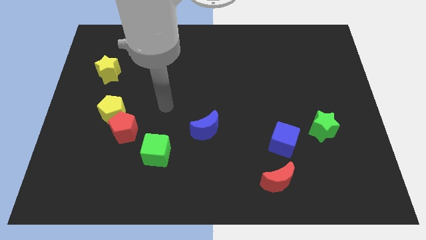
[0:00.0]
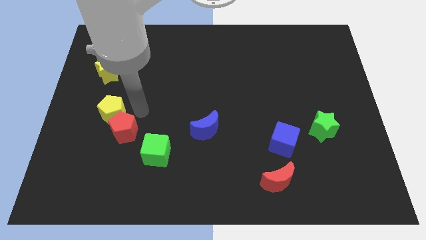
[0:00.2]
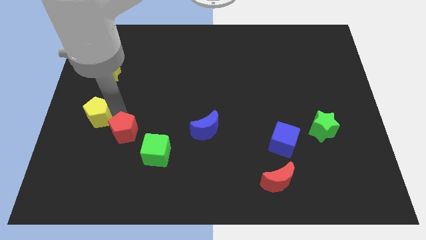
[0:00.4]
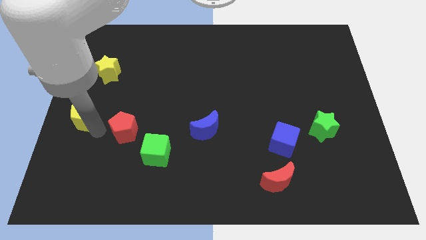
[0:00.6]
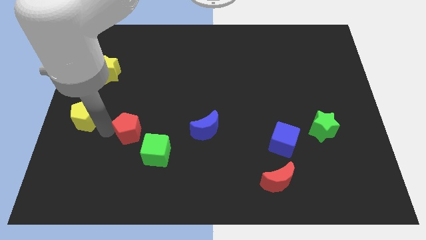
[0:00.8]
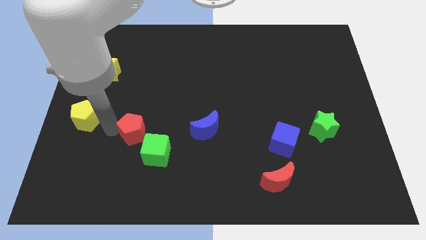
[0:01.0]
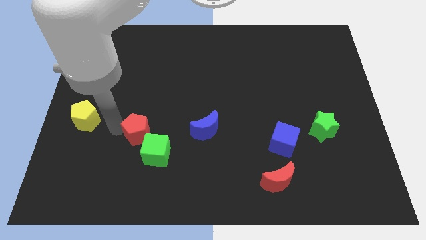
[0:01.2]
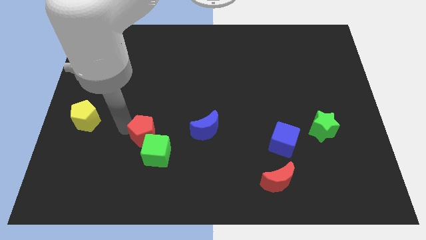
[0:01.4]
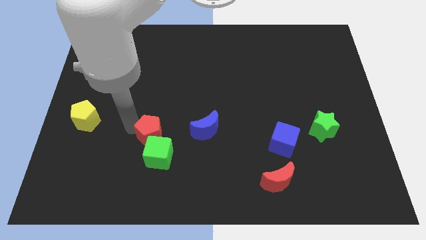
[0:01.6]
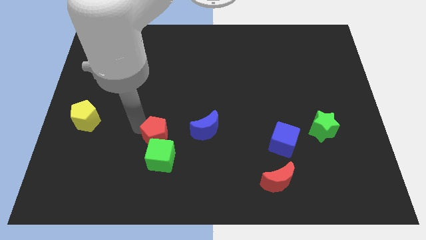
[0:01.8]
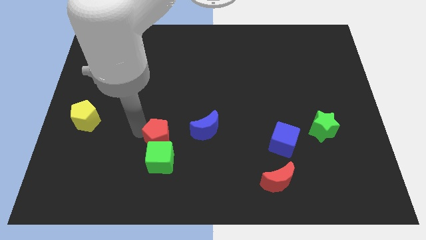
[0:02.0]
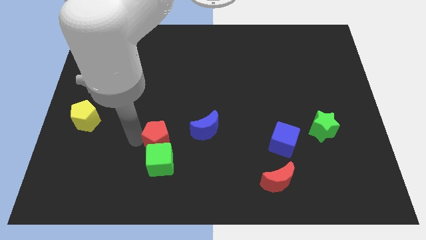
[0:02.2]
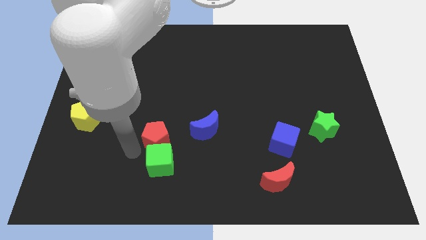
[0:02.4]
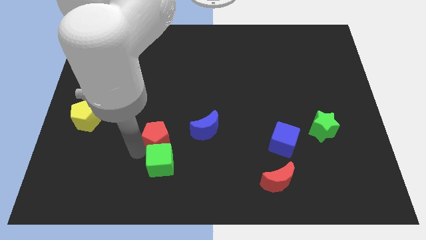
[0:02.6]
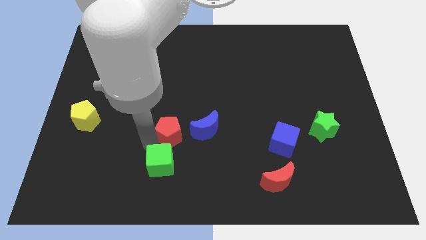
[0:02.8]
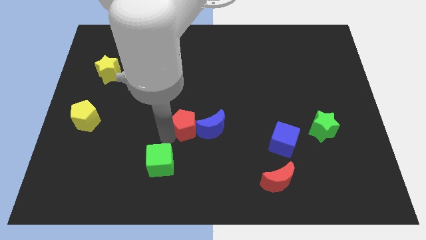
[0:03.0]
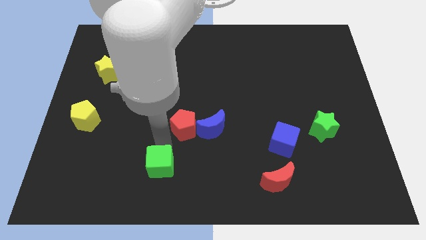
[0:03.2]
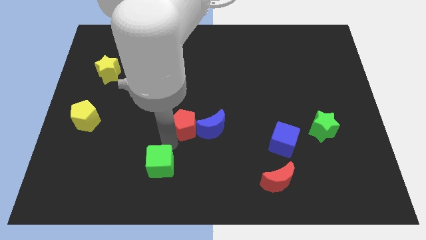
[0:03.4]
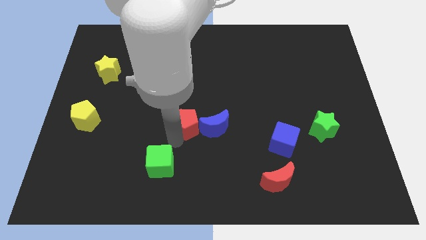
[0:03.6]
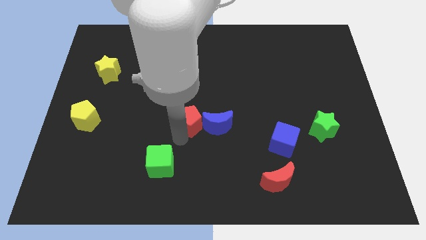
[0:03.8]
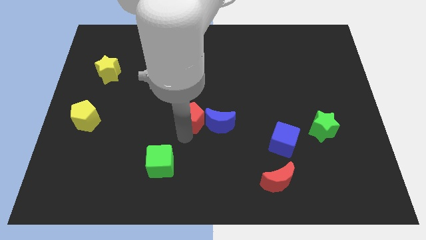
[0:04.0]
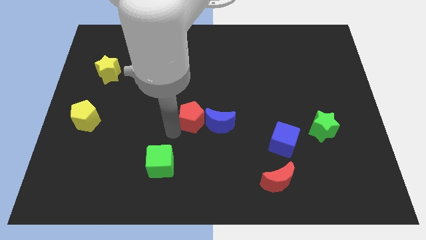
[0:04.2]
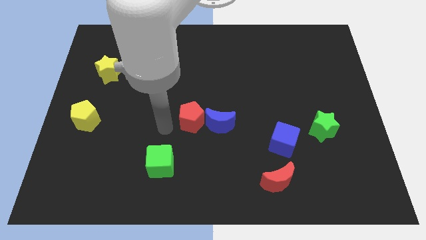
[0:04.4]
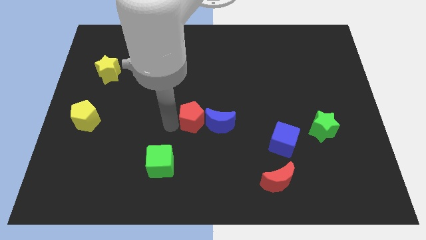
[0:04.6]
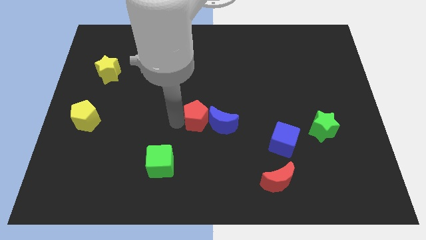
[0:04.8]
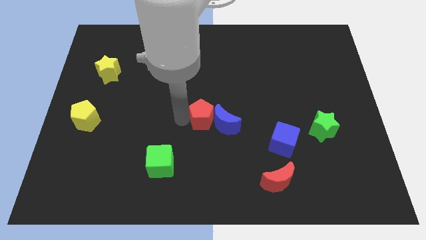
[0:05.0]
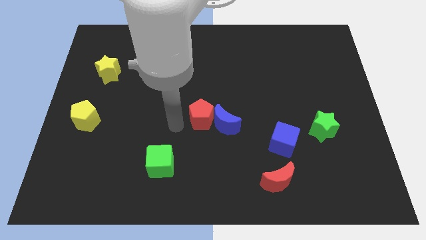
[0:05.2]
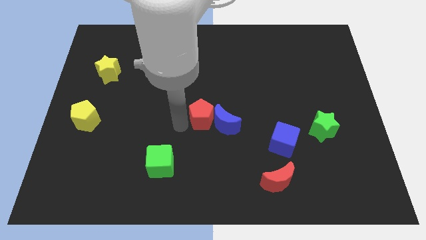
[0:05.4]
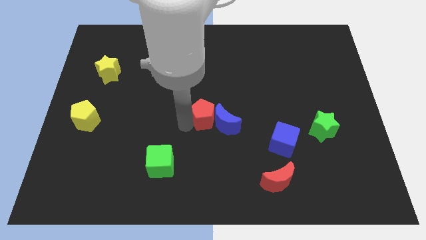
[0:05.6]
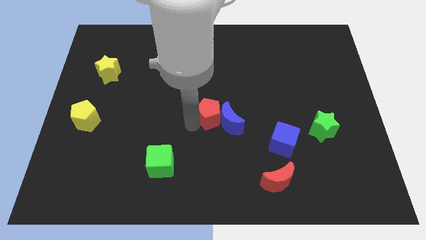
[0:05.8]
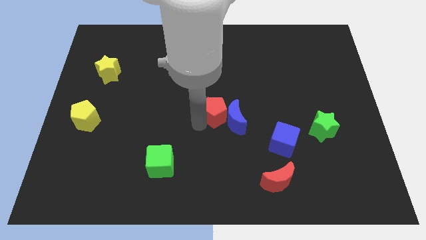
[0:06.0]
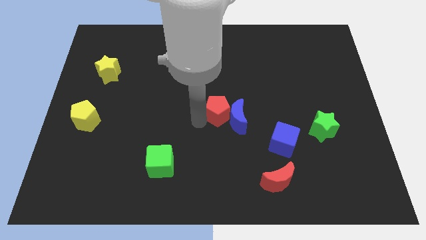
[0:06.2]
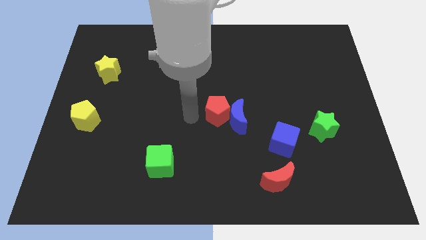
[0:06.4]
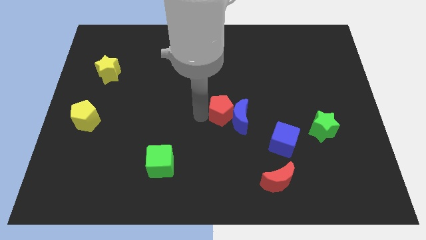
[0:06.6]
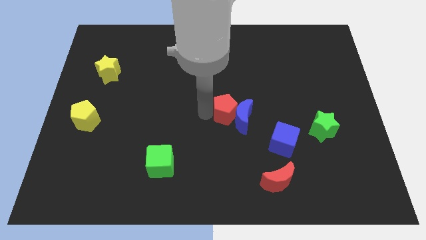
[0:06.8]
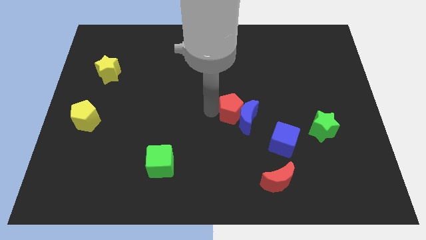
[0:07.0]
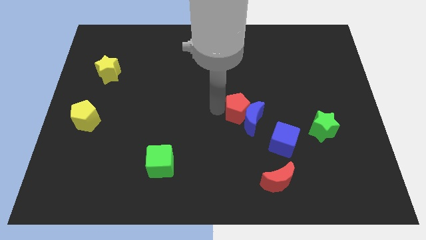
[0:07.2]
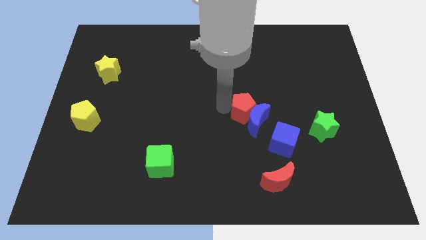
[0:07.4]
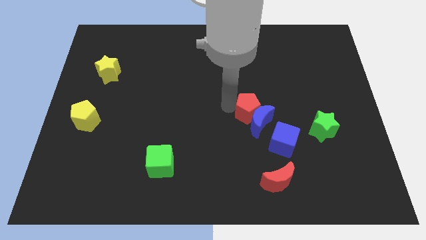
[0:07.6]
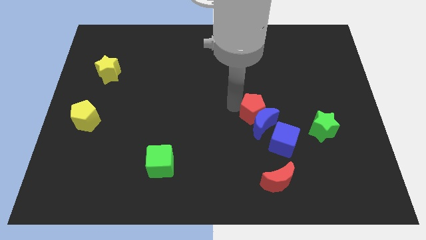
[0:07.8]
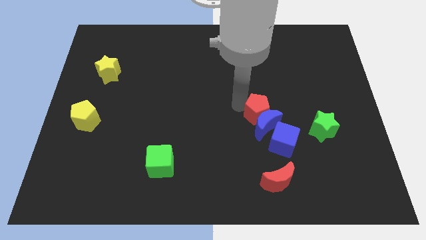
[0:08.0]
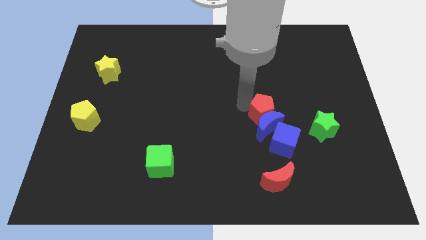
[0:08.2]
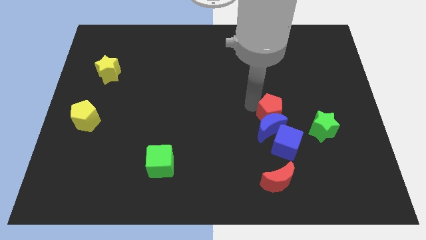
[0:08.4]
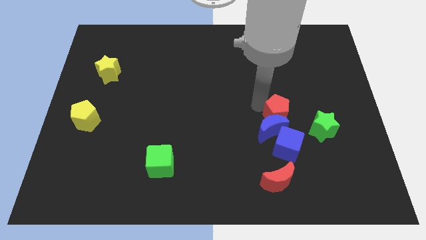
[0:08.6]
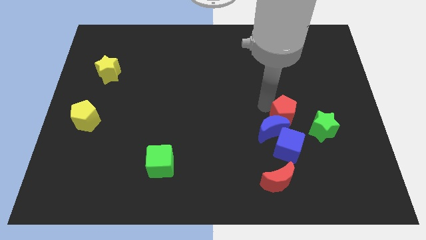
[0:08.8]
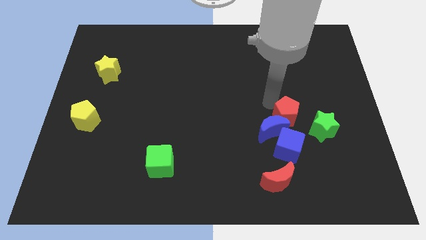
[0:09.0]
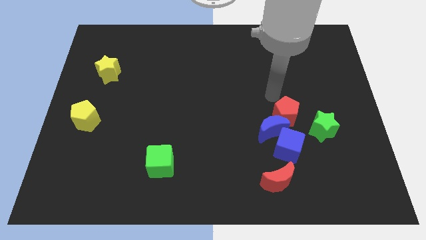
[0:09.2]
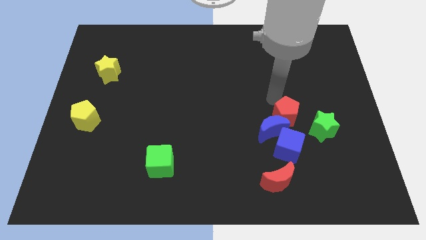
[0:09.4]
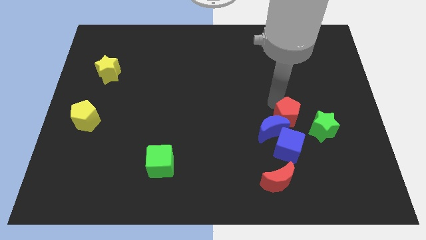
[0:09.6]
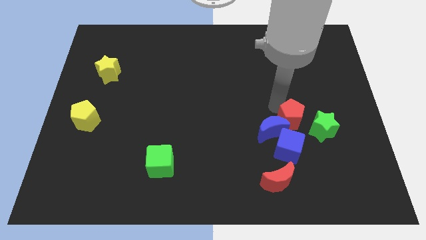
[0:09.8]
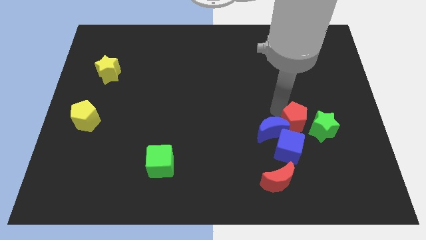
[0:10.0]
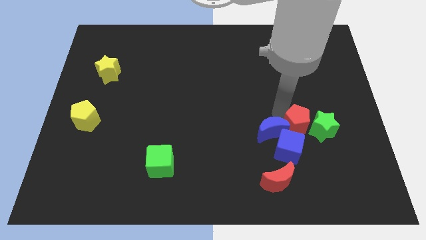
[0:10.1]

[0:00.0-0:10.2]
push the red pentagon diagonally down and to the left of the green star

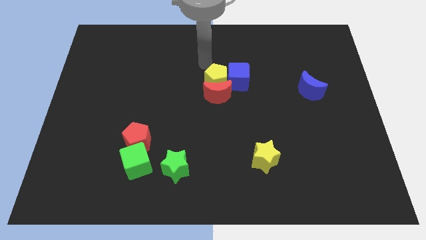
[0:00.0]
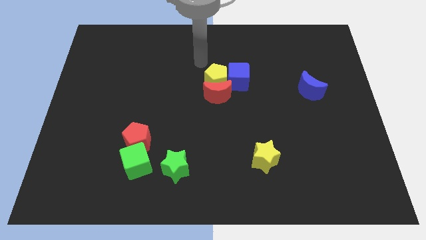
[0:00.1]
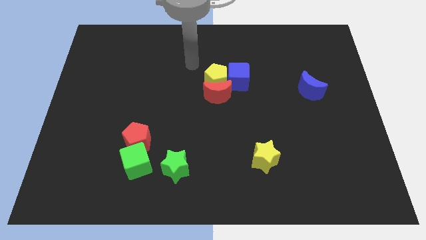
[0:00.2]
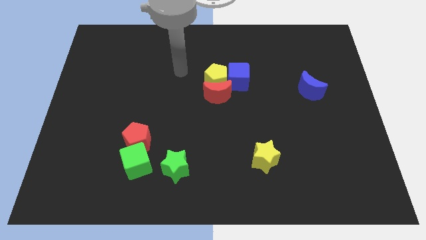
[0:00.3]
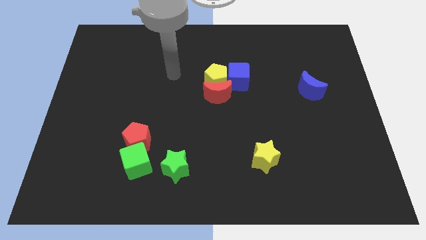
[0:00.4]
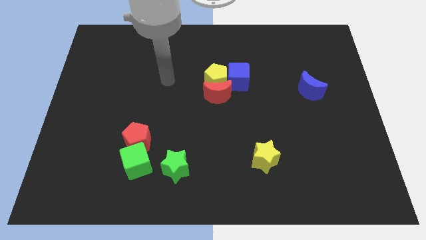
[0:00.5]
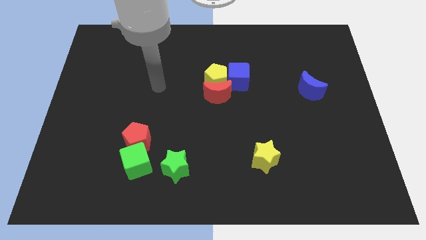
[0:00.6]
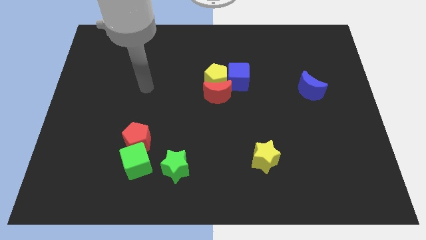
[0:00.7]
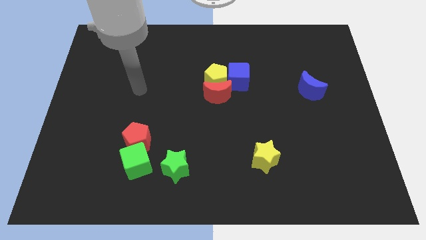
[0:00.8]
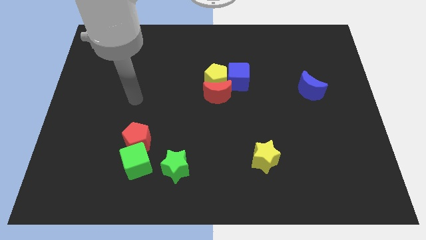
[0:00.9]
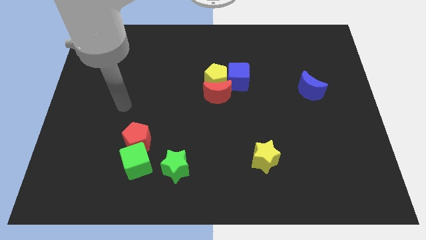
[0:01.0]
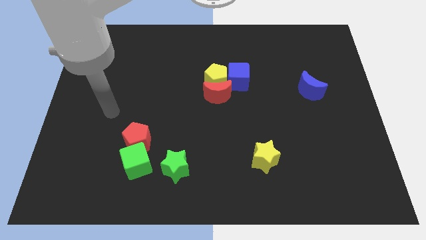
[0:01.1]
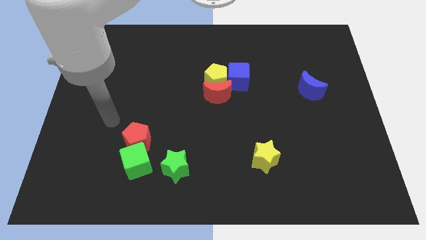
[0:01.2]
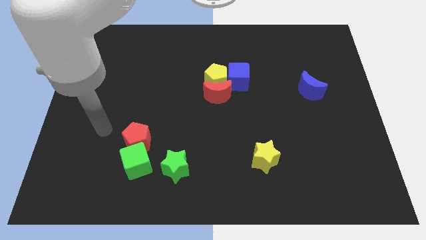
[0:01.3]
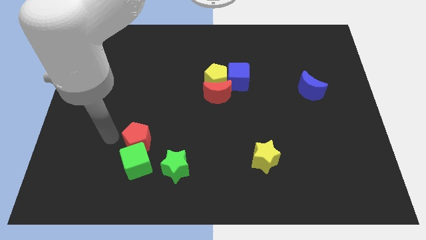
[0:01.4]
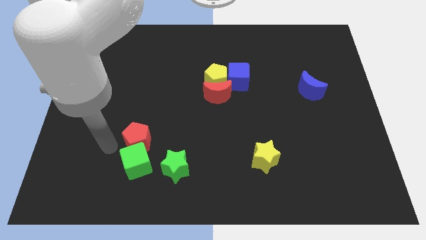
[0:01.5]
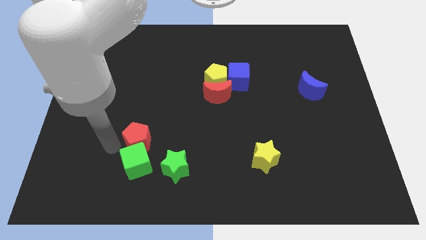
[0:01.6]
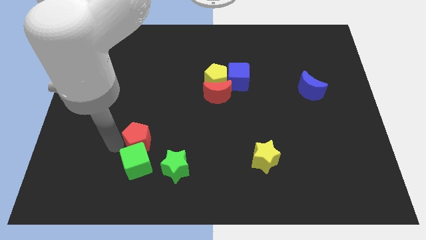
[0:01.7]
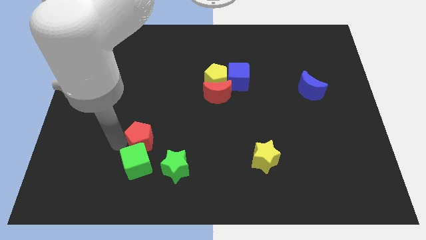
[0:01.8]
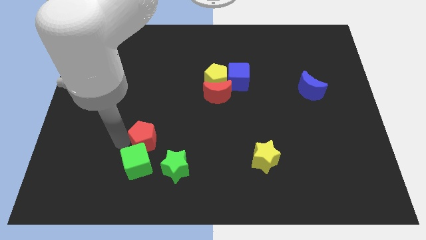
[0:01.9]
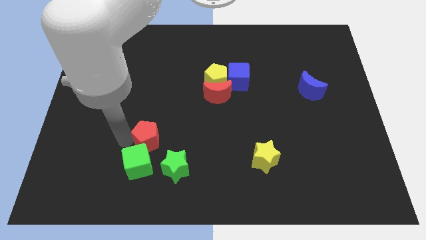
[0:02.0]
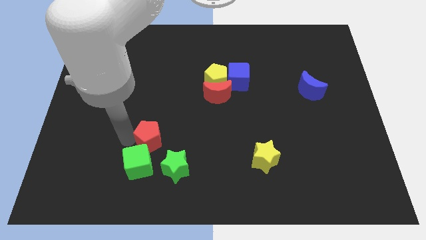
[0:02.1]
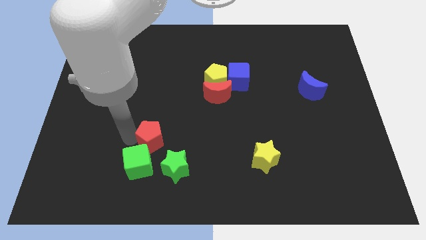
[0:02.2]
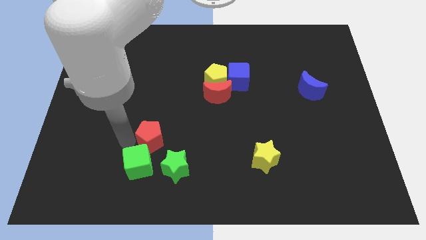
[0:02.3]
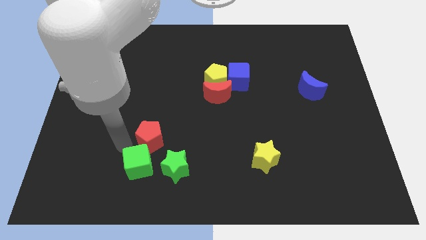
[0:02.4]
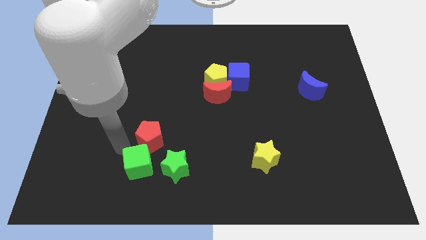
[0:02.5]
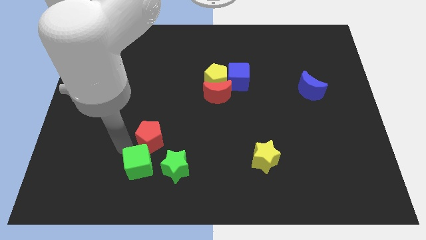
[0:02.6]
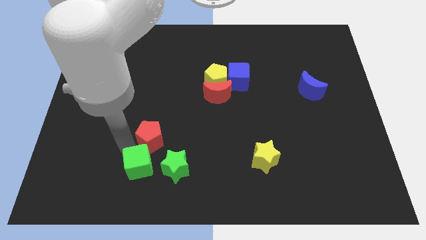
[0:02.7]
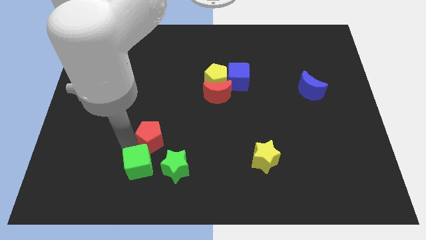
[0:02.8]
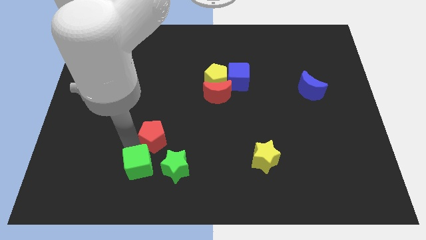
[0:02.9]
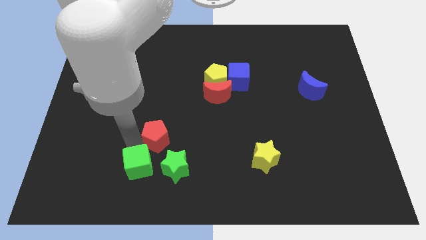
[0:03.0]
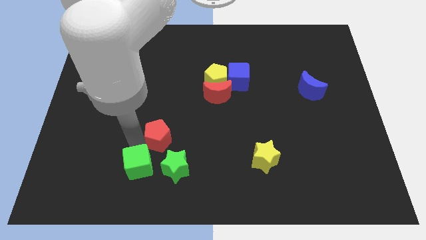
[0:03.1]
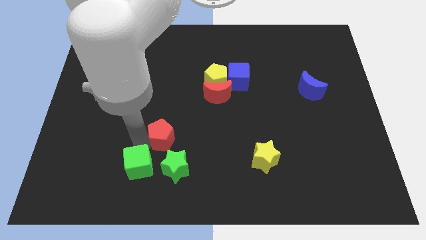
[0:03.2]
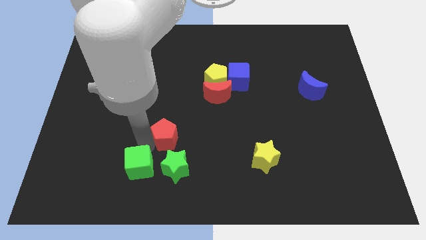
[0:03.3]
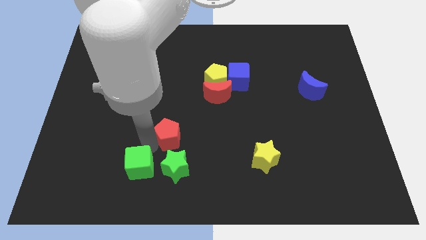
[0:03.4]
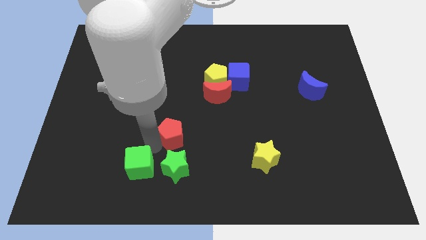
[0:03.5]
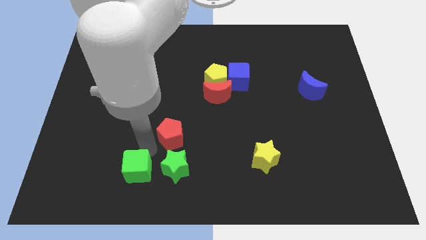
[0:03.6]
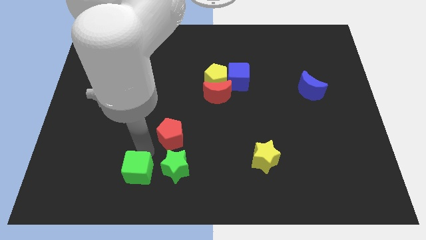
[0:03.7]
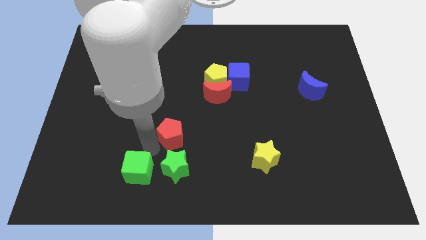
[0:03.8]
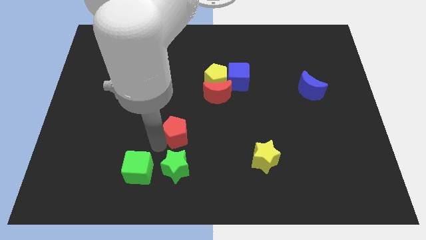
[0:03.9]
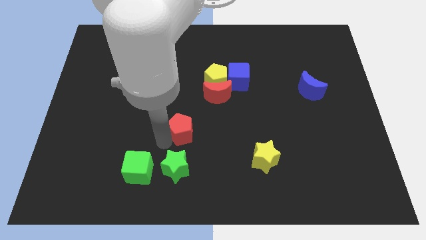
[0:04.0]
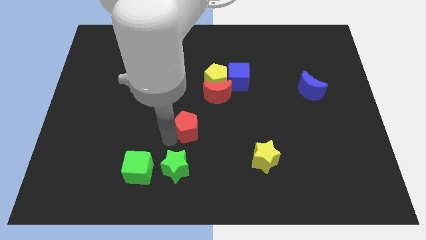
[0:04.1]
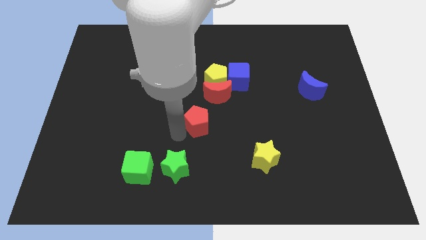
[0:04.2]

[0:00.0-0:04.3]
put the red pentagon to the bottom side of the yellow pentagon
